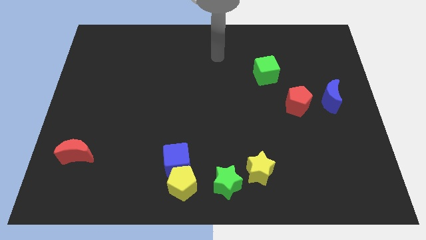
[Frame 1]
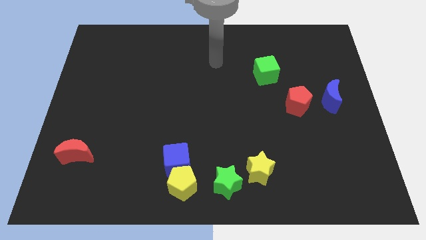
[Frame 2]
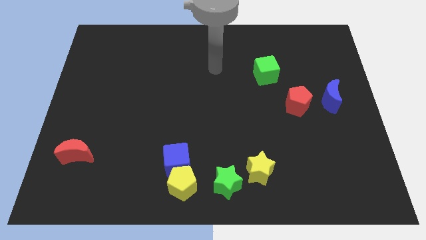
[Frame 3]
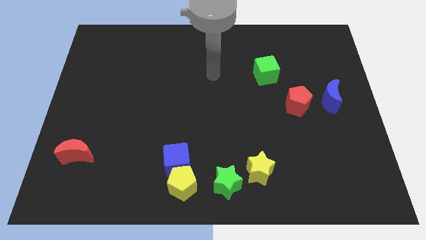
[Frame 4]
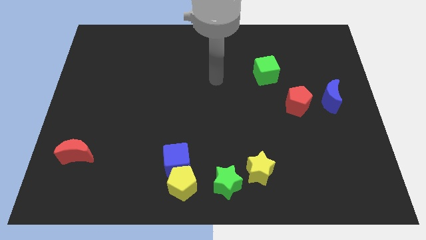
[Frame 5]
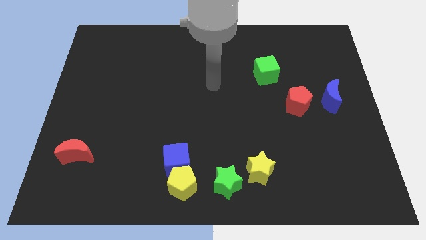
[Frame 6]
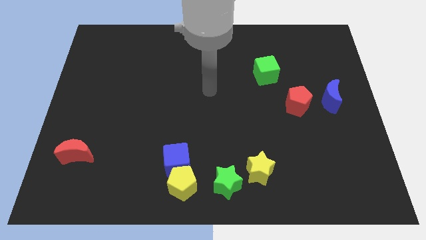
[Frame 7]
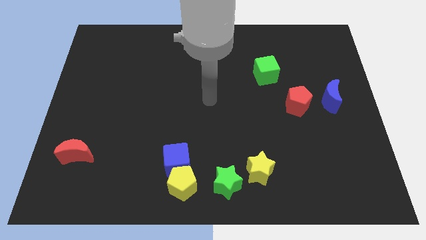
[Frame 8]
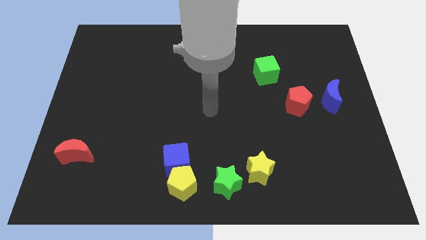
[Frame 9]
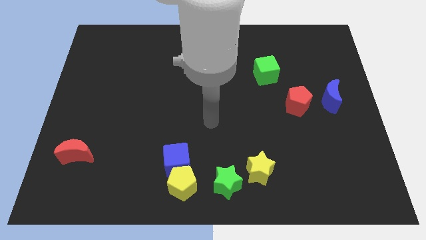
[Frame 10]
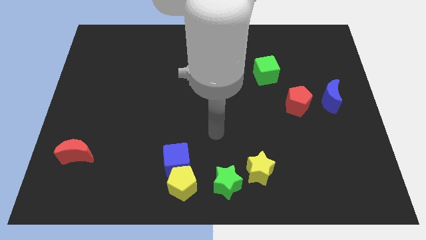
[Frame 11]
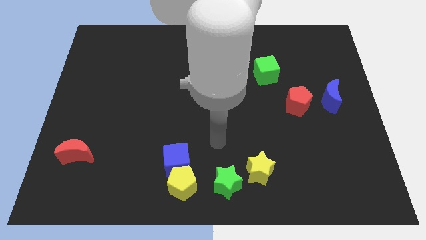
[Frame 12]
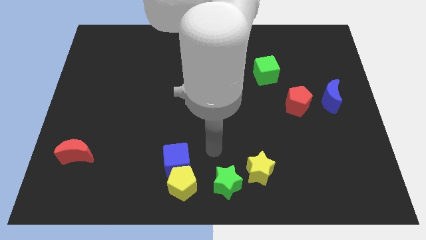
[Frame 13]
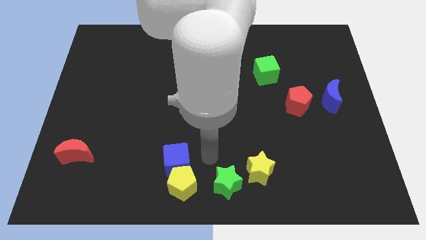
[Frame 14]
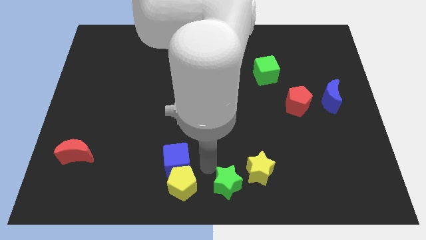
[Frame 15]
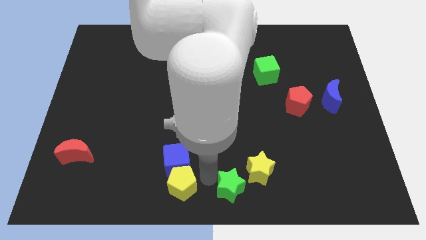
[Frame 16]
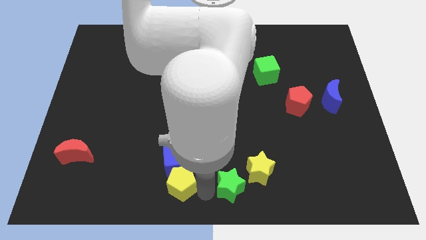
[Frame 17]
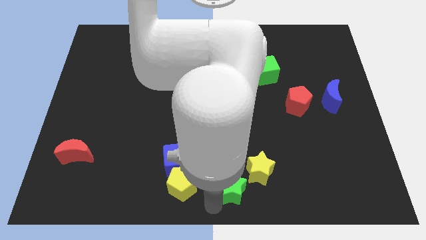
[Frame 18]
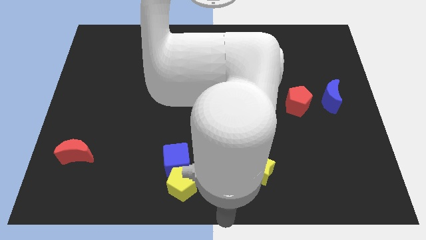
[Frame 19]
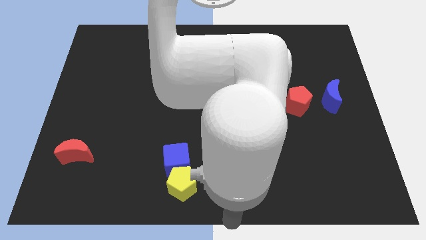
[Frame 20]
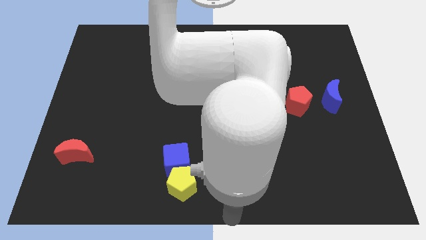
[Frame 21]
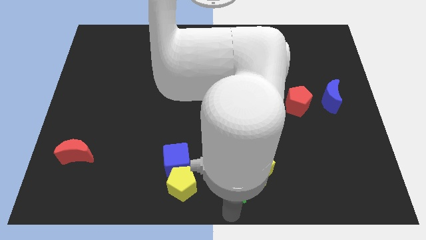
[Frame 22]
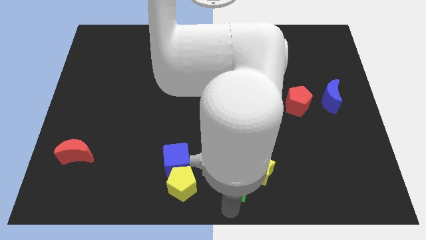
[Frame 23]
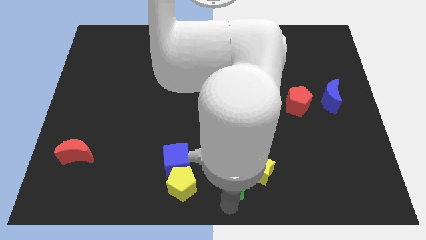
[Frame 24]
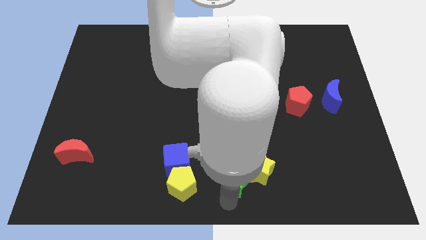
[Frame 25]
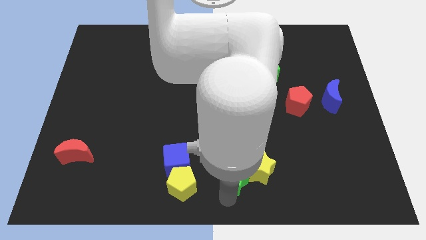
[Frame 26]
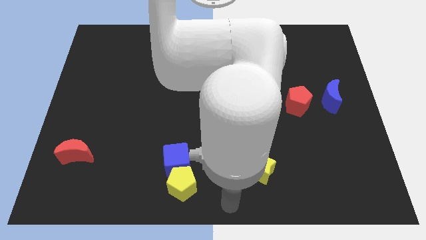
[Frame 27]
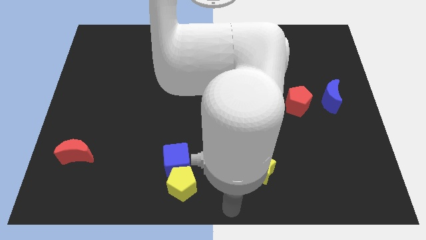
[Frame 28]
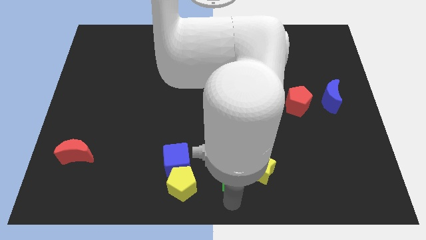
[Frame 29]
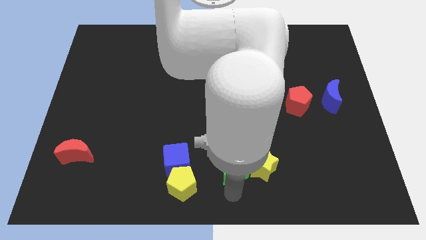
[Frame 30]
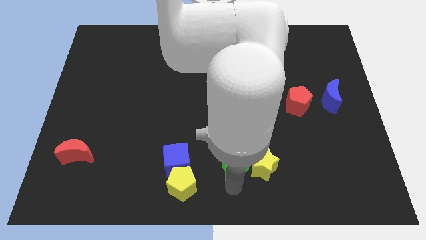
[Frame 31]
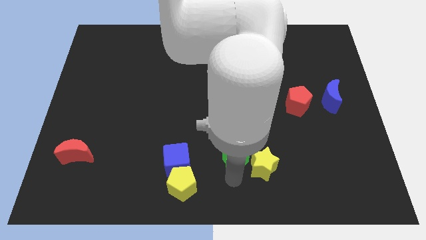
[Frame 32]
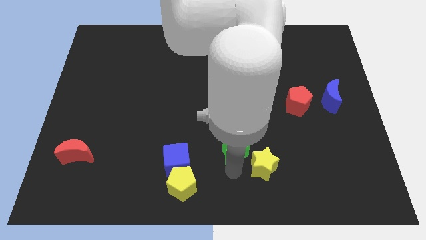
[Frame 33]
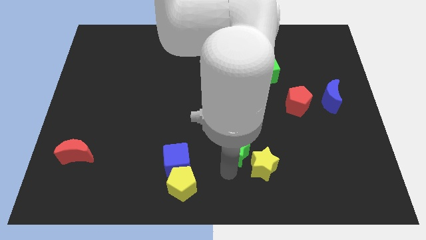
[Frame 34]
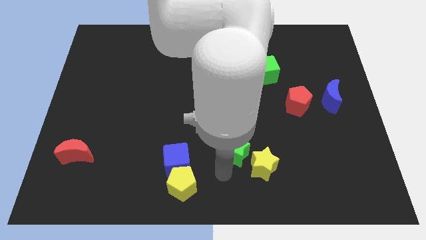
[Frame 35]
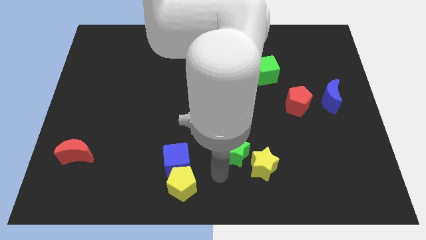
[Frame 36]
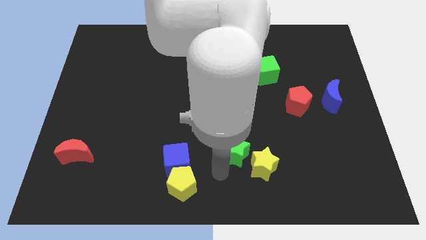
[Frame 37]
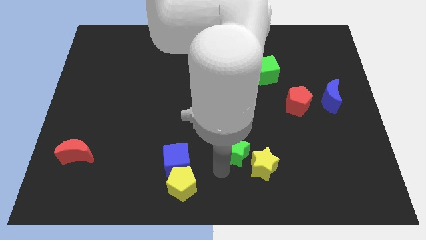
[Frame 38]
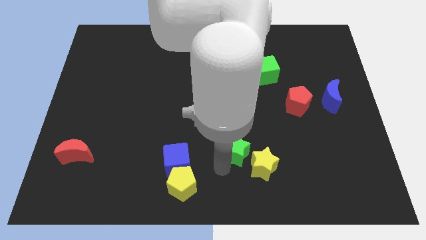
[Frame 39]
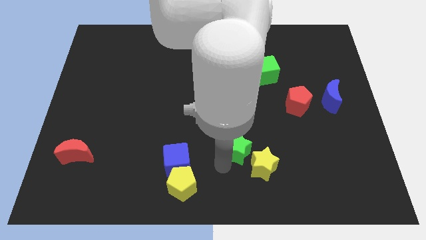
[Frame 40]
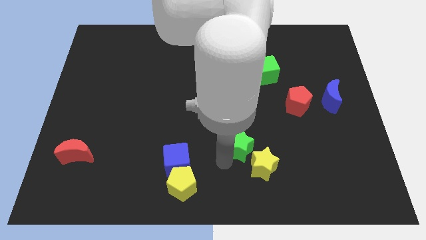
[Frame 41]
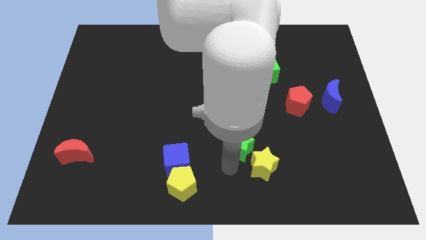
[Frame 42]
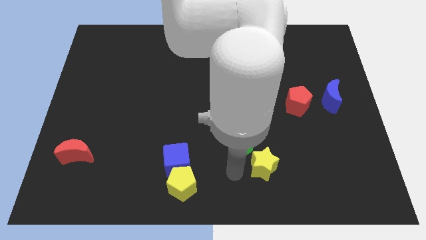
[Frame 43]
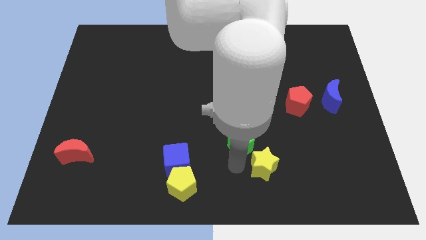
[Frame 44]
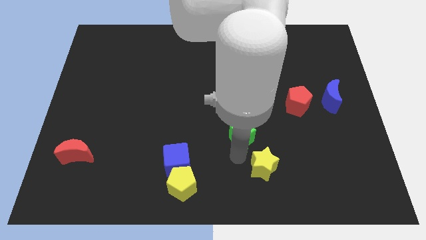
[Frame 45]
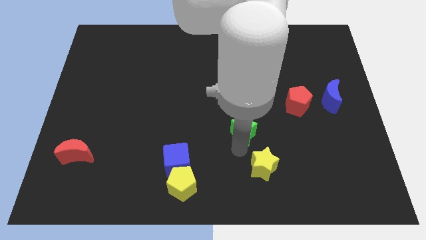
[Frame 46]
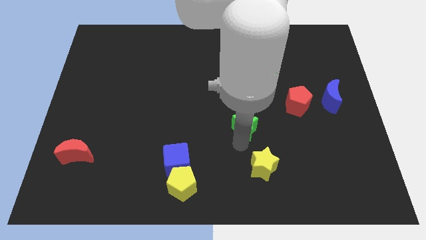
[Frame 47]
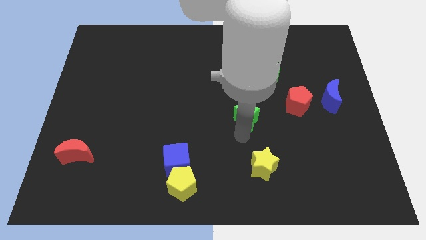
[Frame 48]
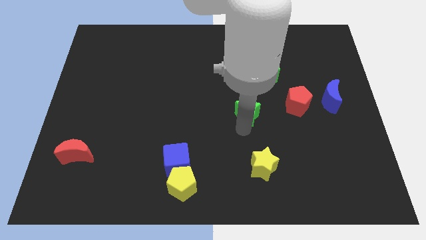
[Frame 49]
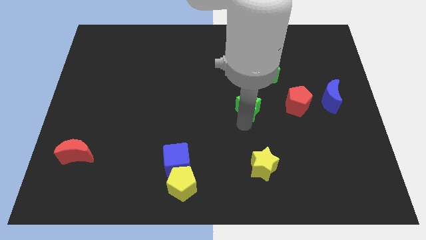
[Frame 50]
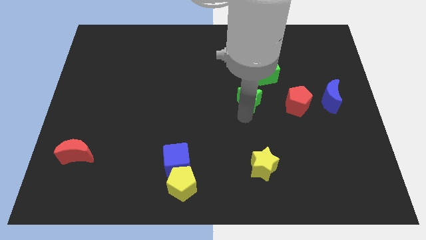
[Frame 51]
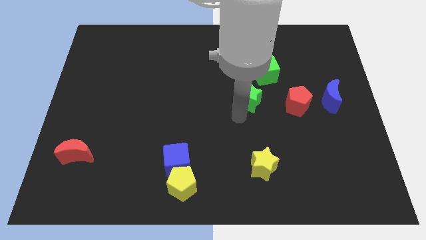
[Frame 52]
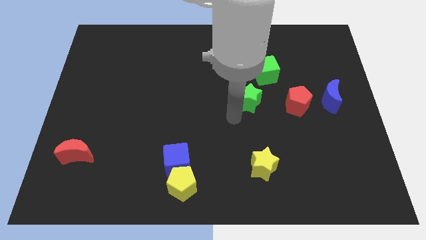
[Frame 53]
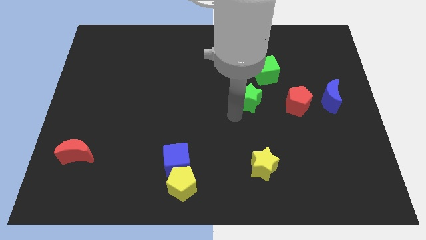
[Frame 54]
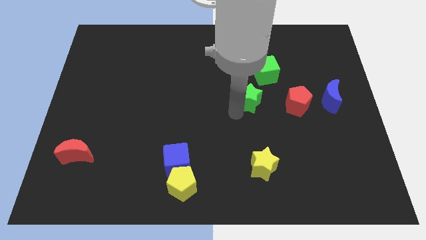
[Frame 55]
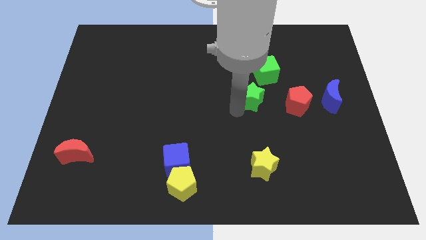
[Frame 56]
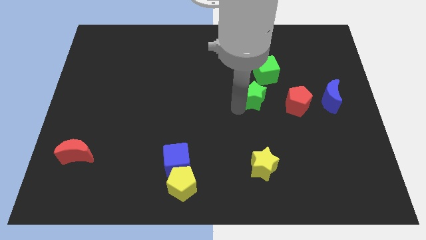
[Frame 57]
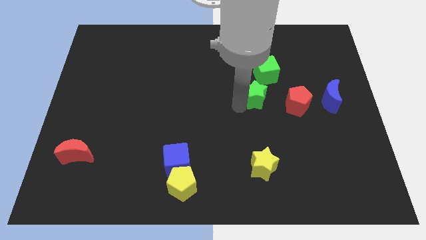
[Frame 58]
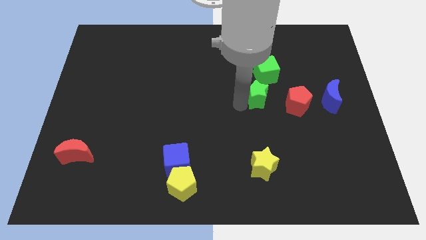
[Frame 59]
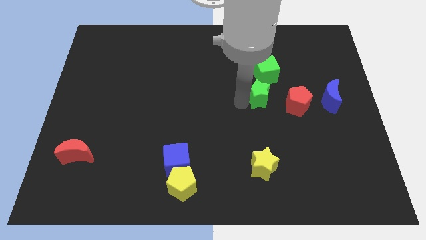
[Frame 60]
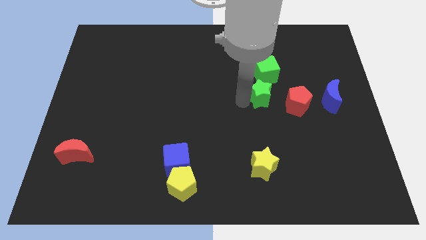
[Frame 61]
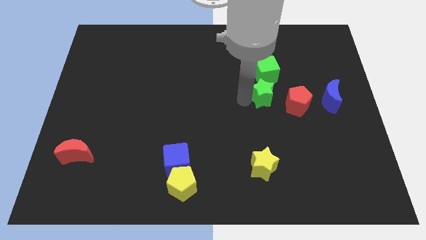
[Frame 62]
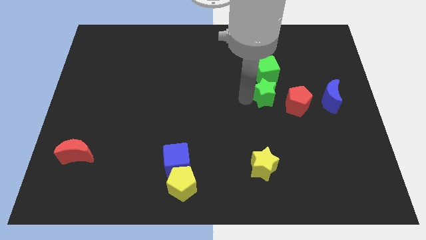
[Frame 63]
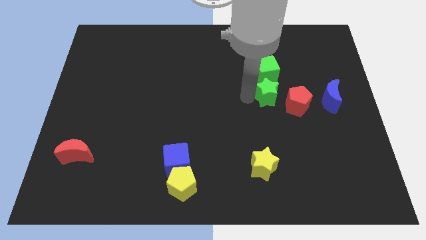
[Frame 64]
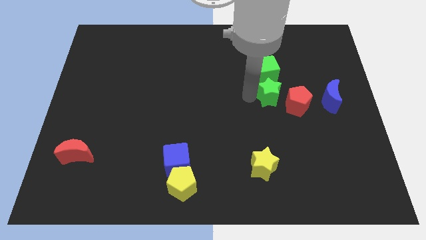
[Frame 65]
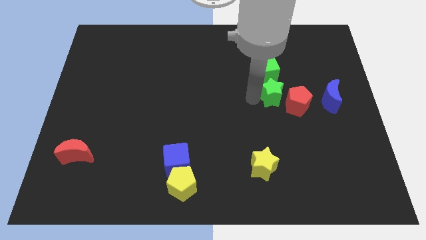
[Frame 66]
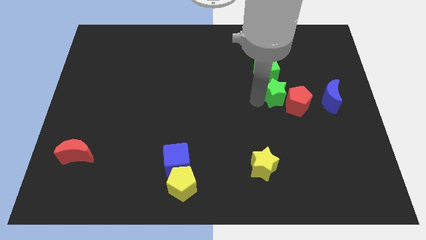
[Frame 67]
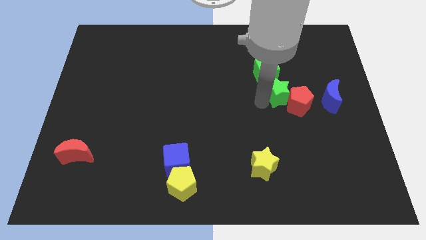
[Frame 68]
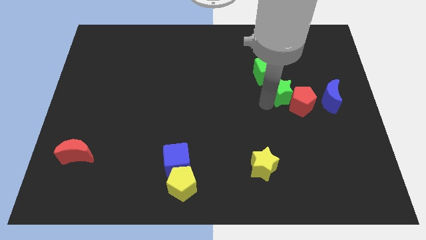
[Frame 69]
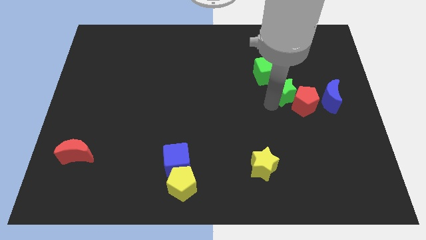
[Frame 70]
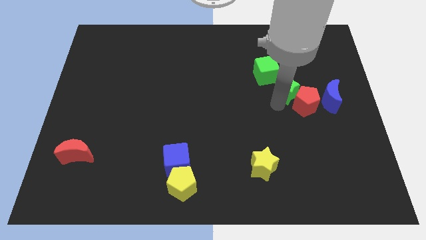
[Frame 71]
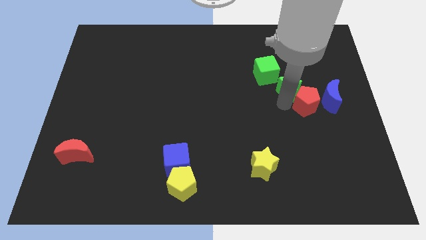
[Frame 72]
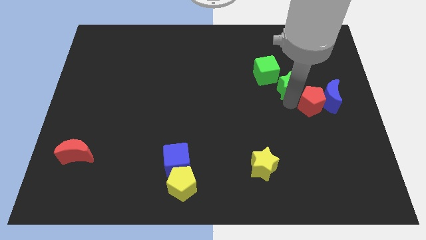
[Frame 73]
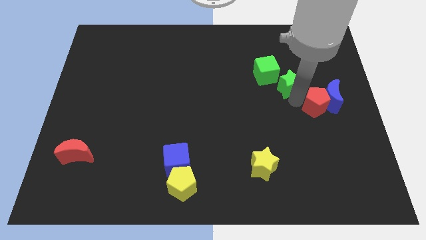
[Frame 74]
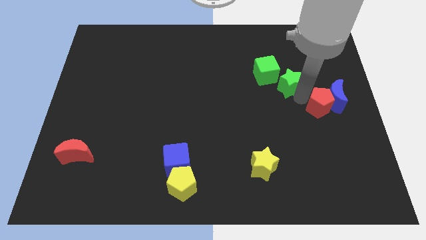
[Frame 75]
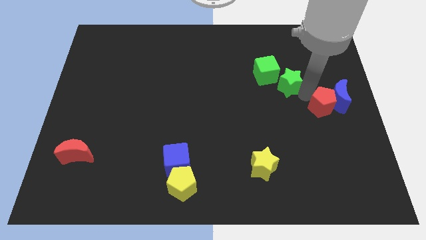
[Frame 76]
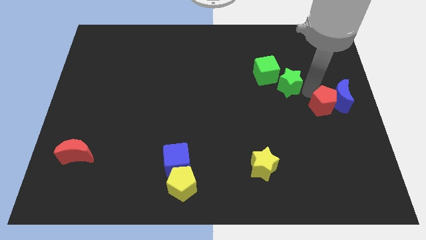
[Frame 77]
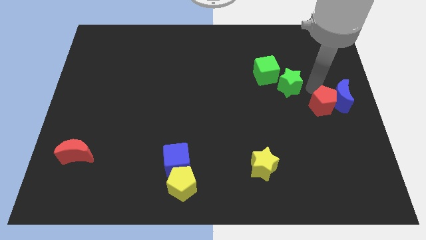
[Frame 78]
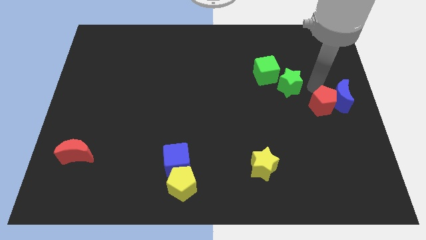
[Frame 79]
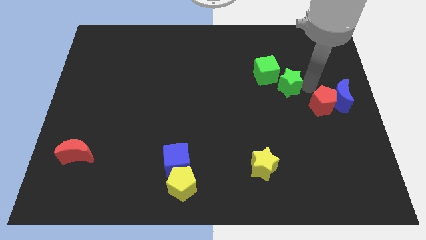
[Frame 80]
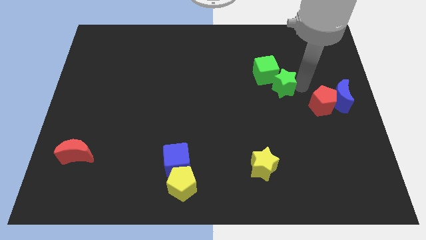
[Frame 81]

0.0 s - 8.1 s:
slide the green star next to the green cube
